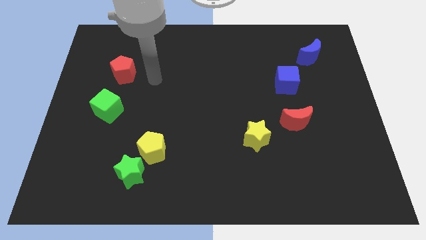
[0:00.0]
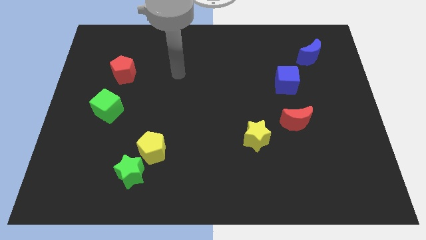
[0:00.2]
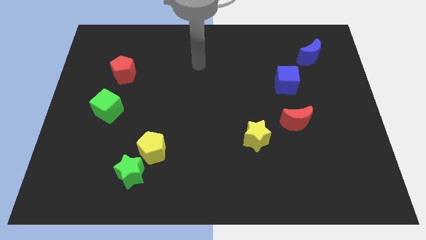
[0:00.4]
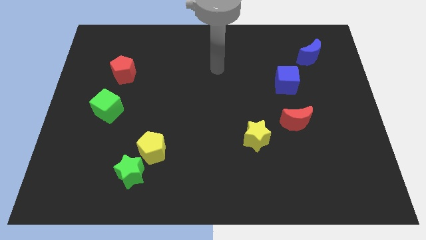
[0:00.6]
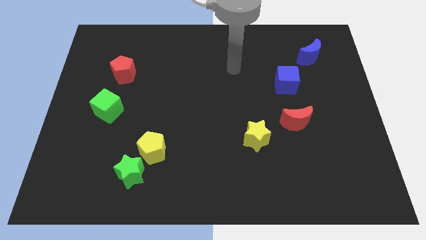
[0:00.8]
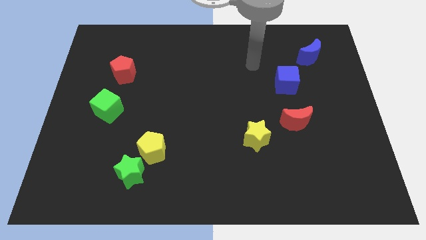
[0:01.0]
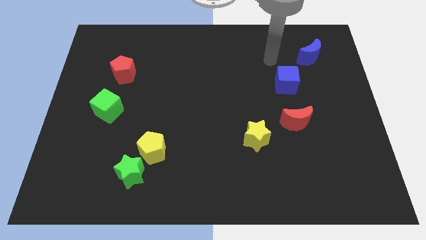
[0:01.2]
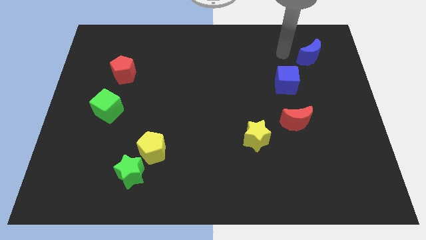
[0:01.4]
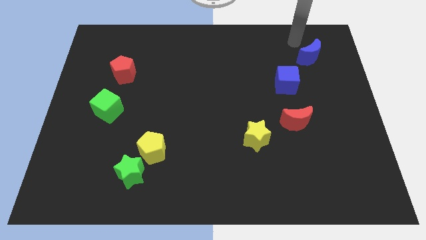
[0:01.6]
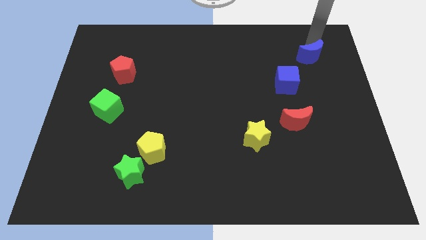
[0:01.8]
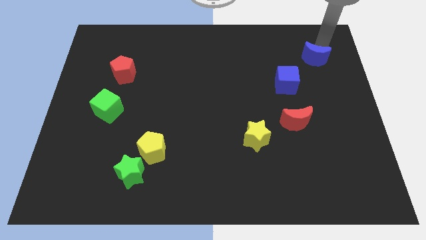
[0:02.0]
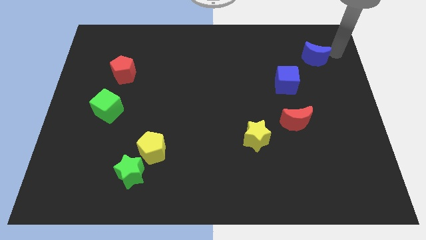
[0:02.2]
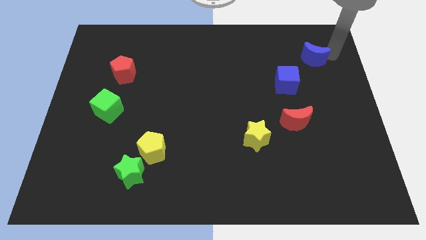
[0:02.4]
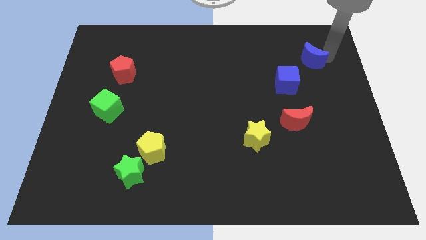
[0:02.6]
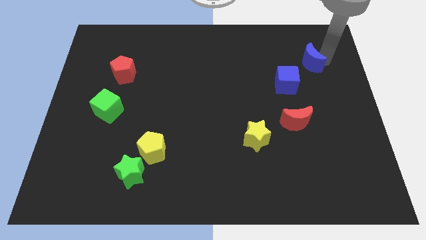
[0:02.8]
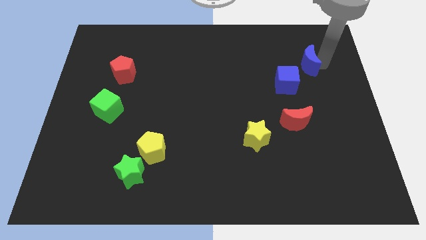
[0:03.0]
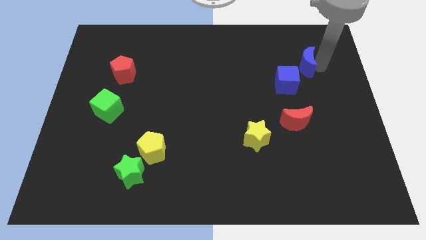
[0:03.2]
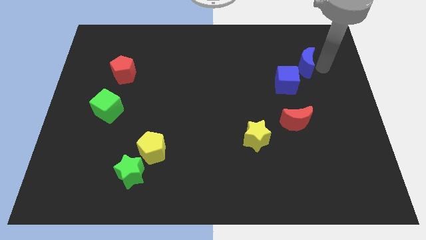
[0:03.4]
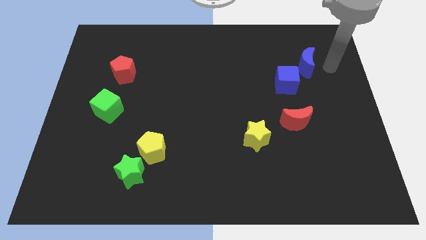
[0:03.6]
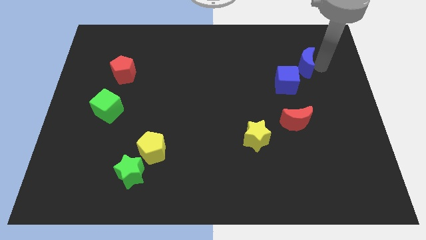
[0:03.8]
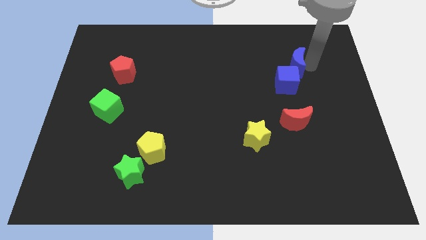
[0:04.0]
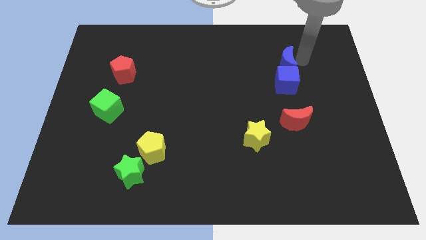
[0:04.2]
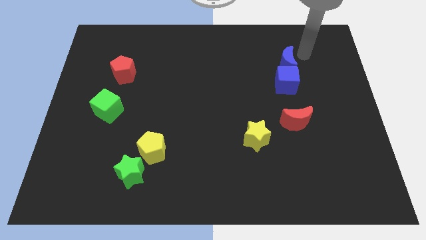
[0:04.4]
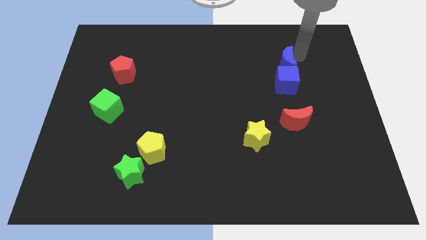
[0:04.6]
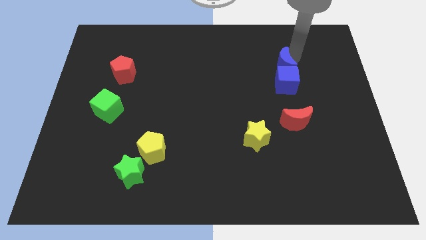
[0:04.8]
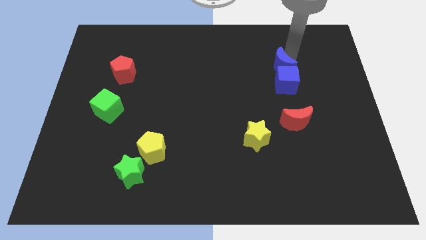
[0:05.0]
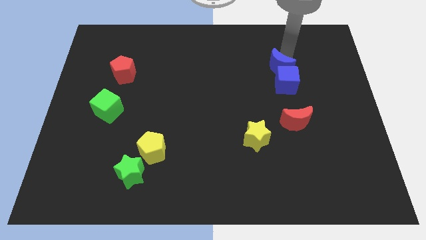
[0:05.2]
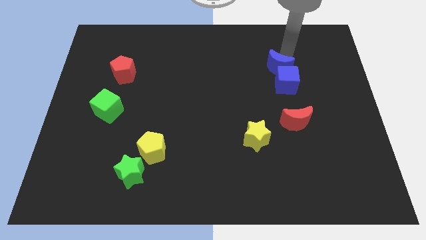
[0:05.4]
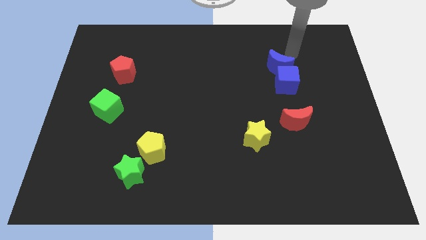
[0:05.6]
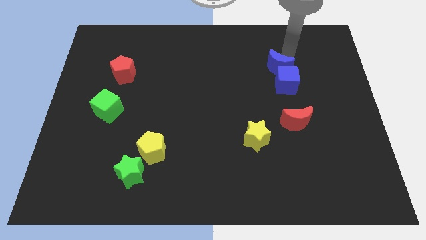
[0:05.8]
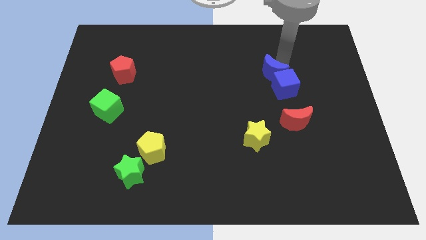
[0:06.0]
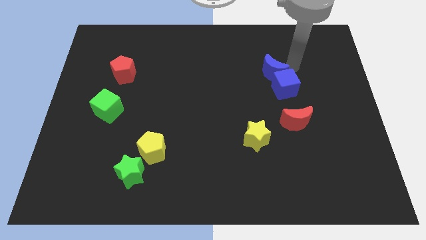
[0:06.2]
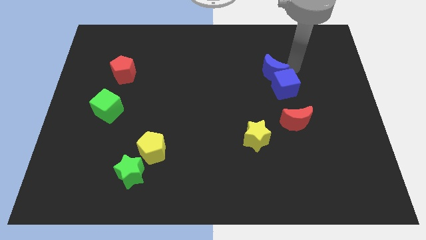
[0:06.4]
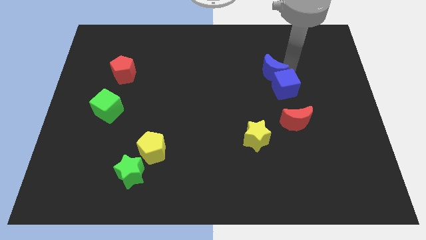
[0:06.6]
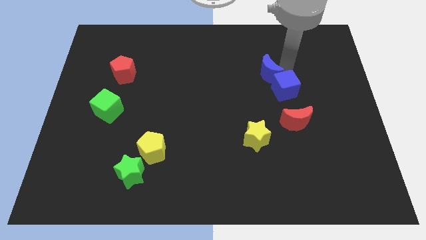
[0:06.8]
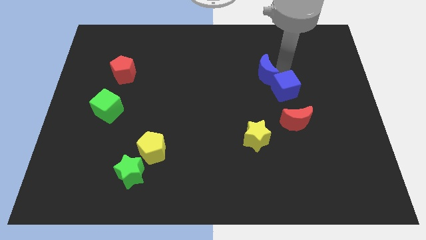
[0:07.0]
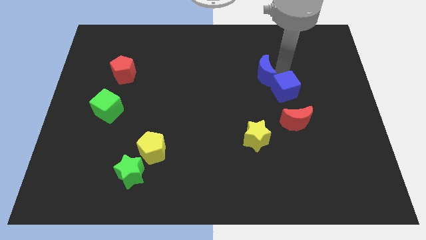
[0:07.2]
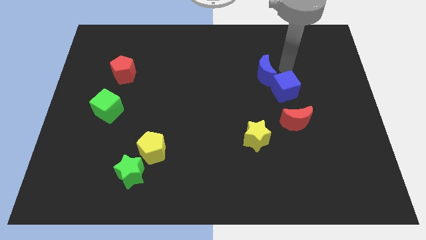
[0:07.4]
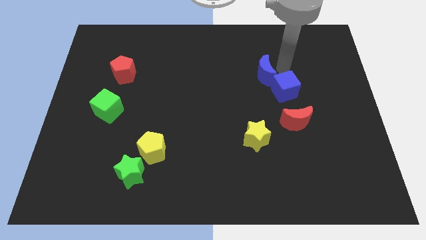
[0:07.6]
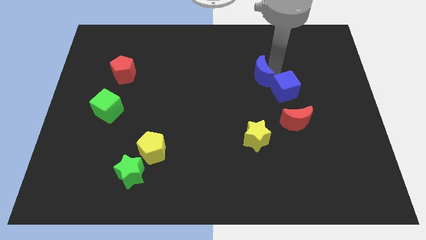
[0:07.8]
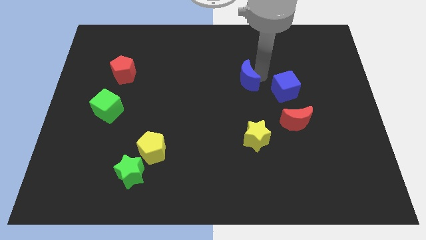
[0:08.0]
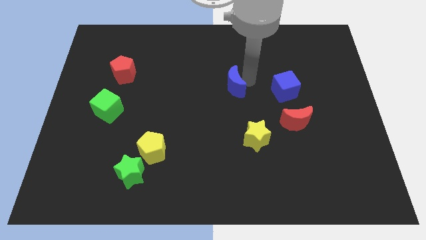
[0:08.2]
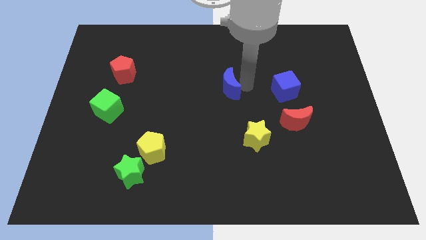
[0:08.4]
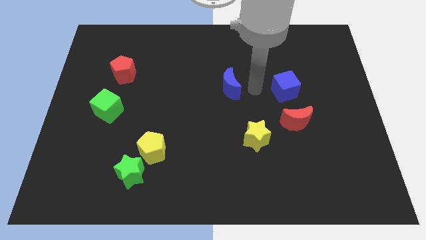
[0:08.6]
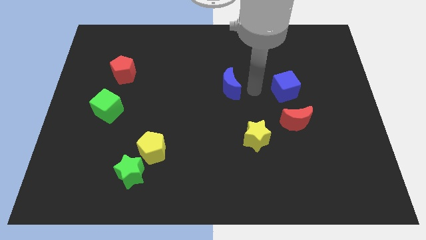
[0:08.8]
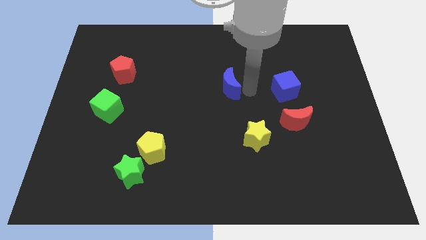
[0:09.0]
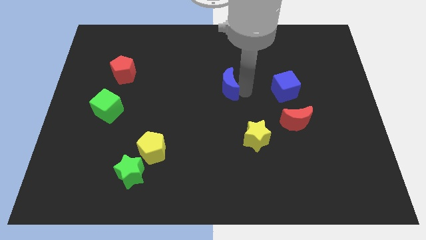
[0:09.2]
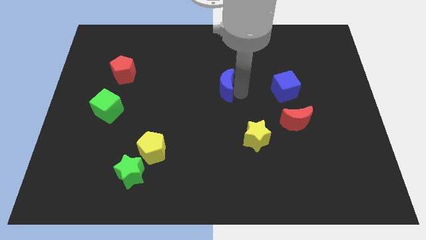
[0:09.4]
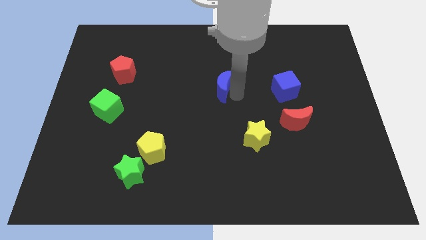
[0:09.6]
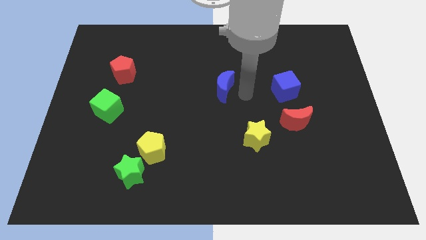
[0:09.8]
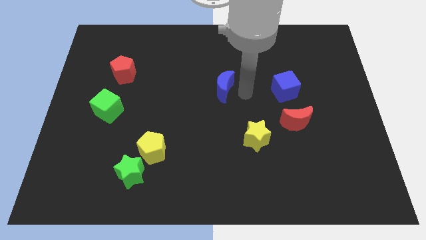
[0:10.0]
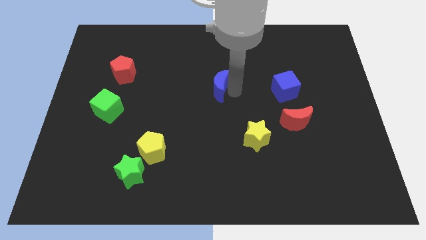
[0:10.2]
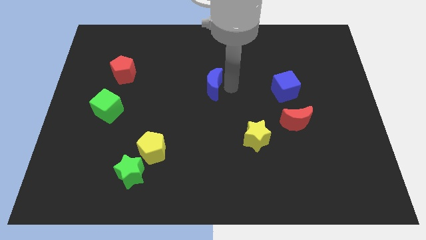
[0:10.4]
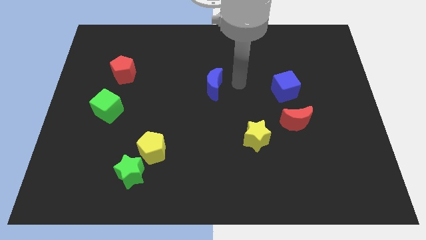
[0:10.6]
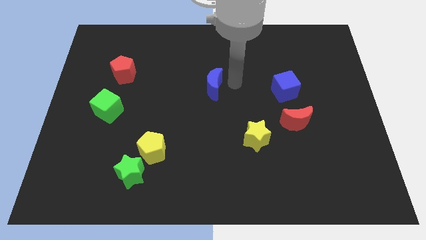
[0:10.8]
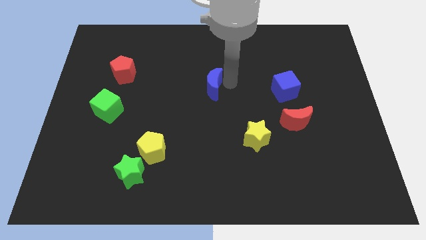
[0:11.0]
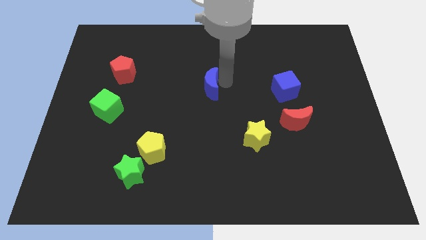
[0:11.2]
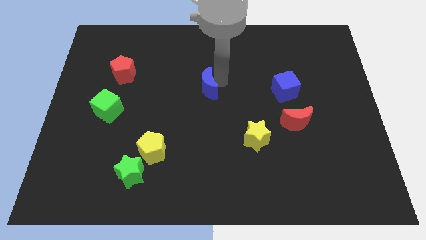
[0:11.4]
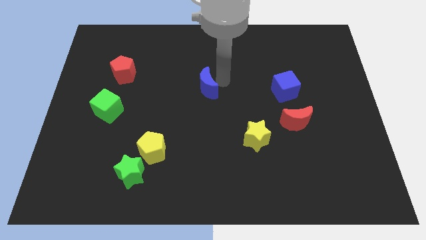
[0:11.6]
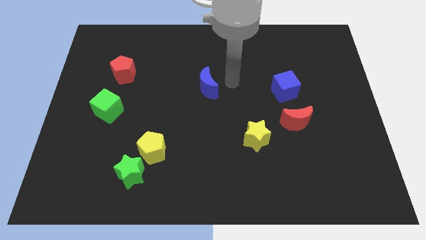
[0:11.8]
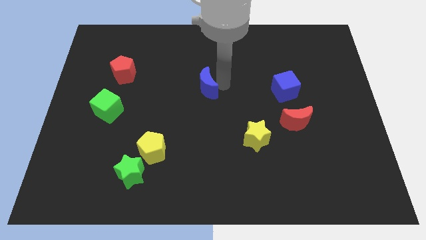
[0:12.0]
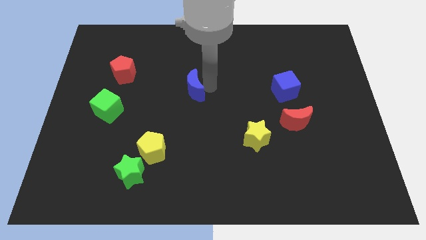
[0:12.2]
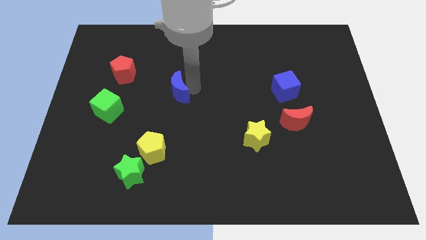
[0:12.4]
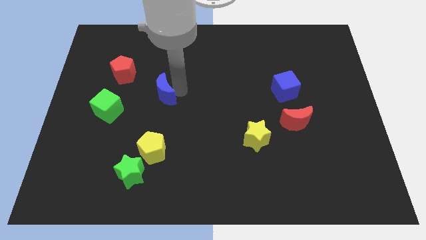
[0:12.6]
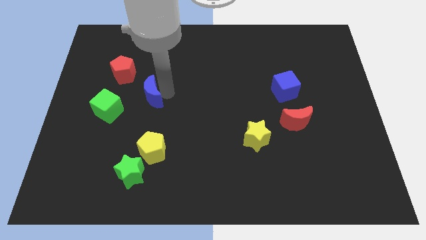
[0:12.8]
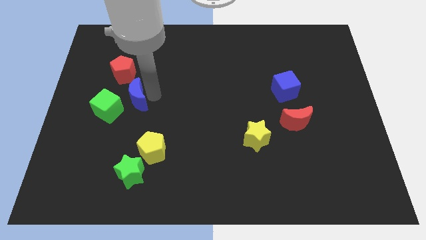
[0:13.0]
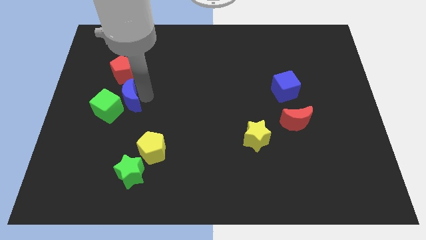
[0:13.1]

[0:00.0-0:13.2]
move the blue moon towards the green cube
